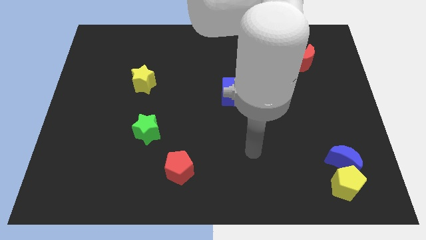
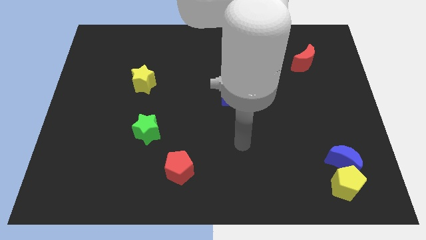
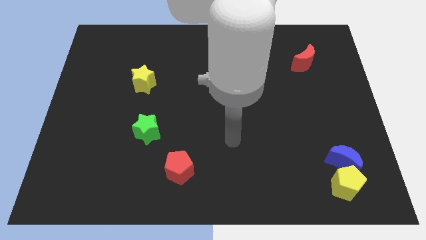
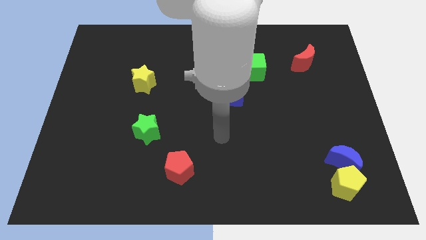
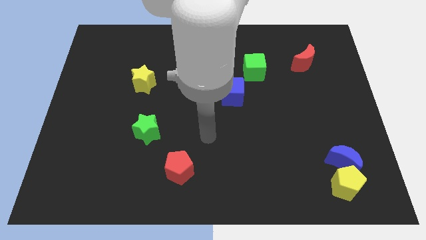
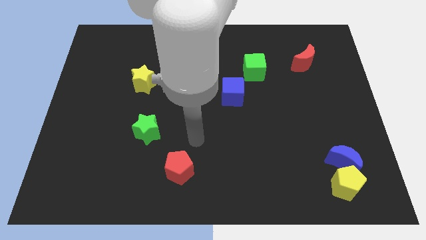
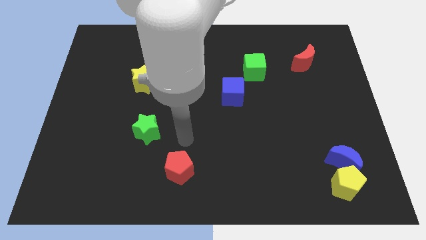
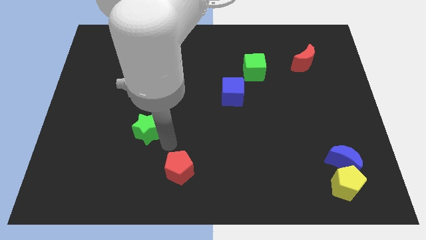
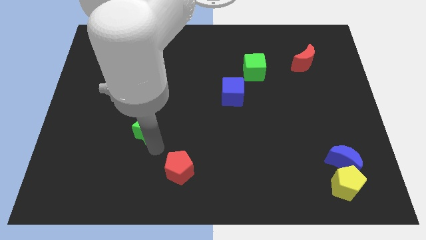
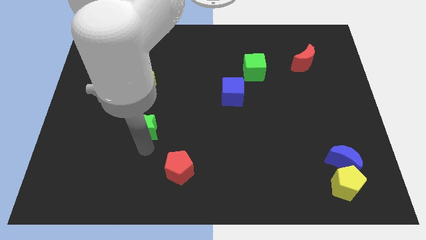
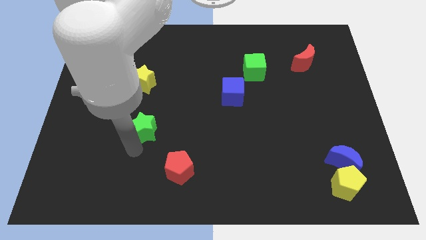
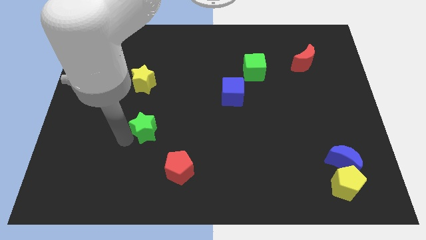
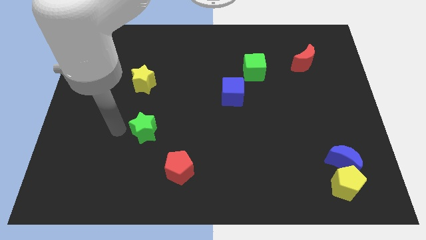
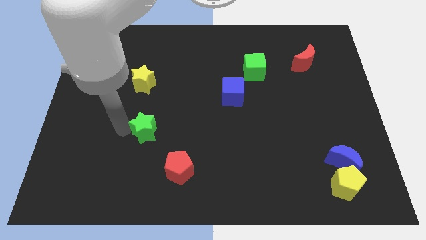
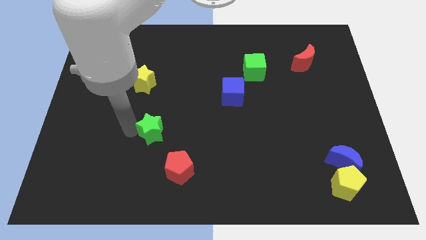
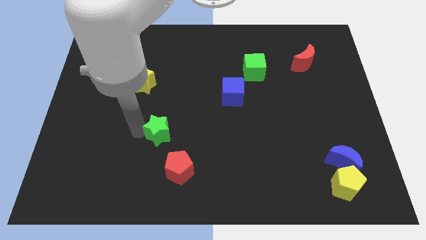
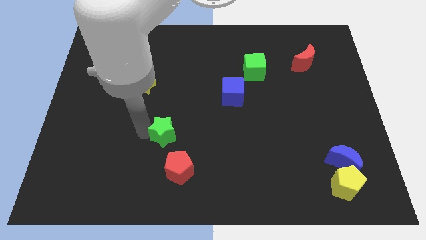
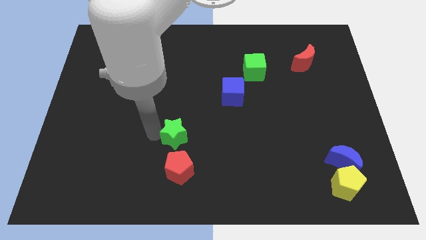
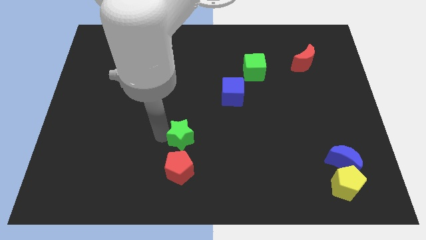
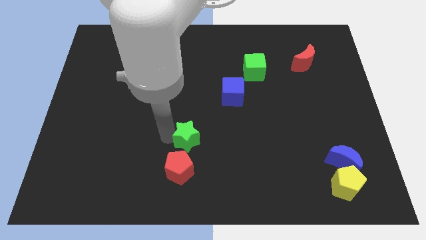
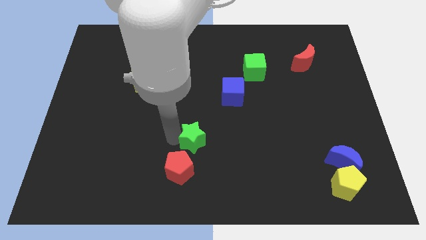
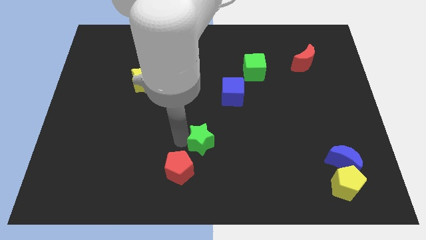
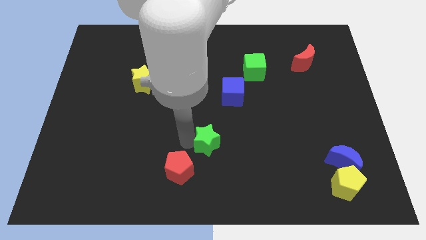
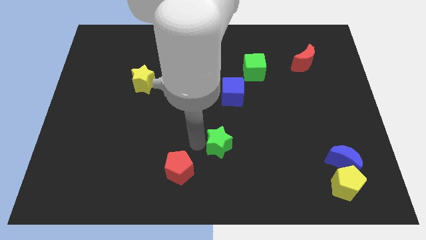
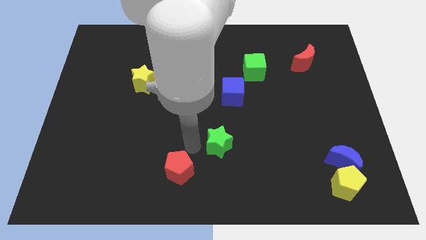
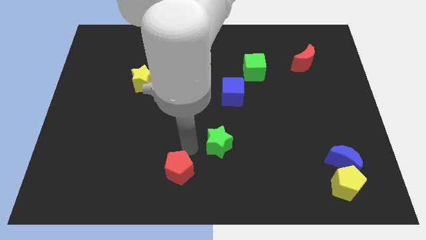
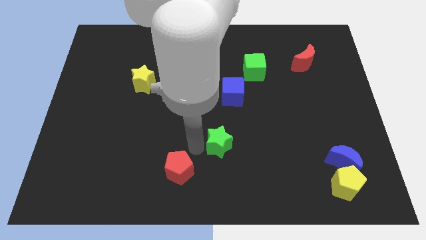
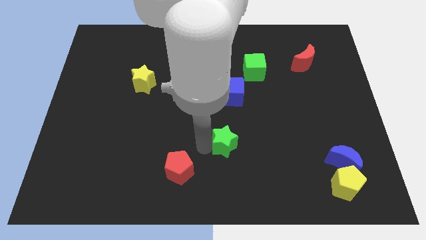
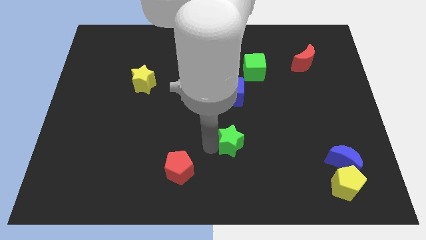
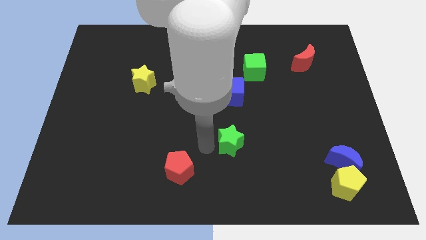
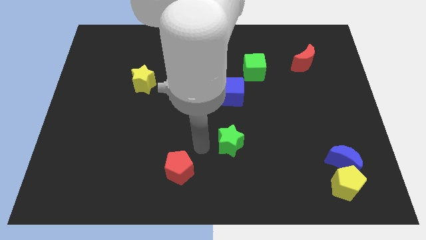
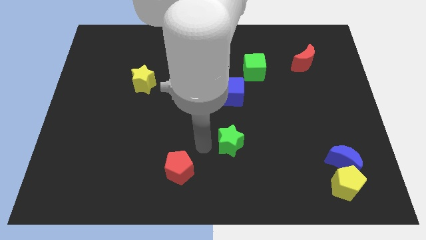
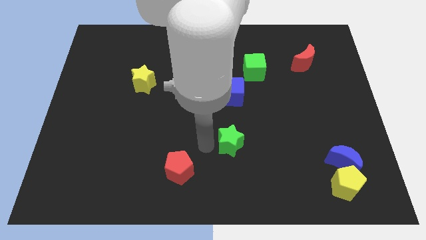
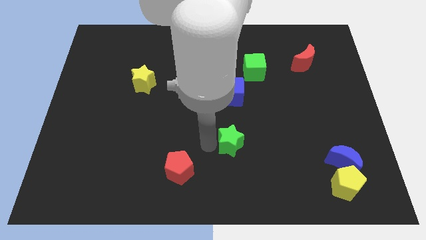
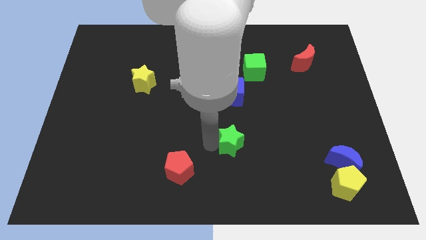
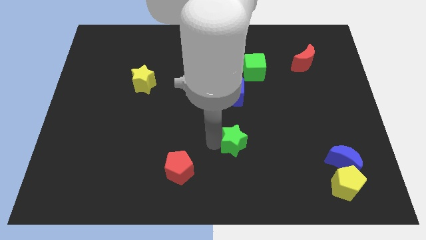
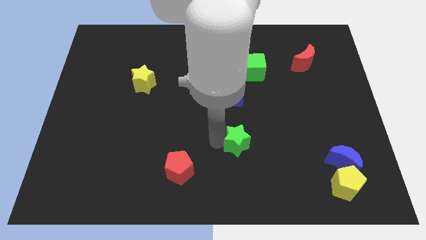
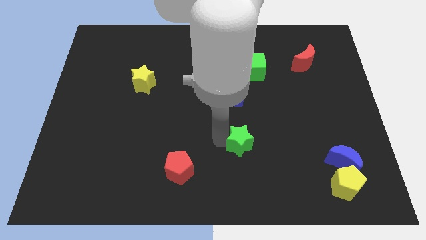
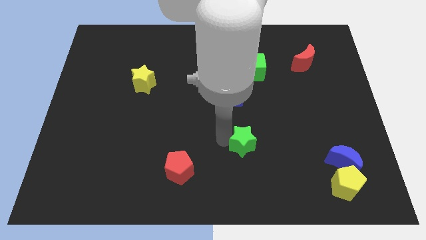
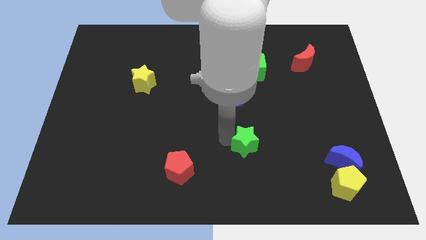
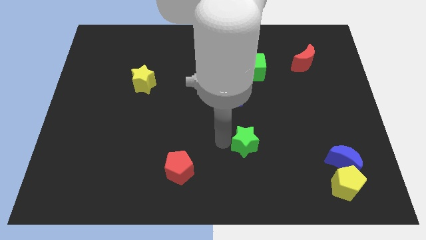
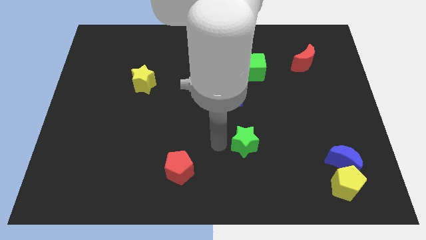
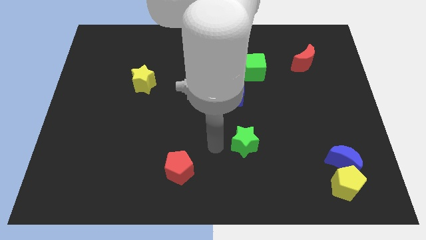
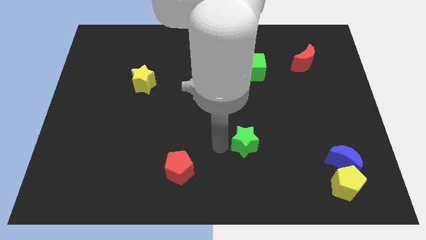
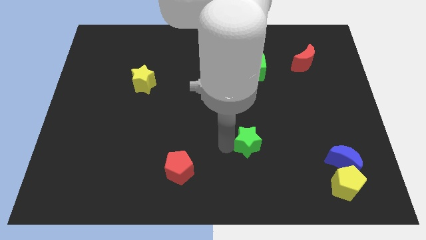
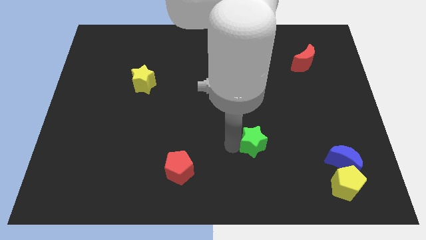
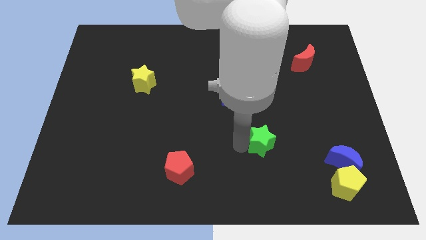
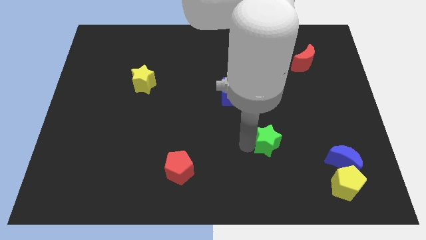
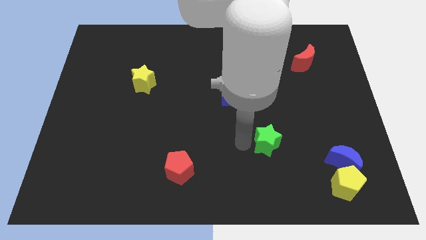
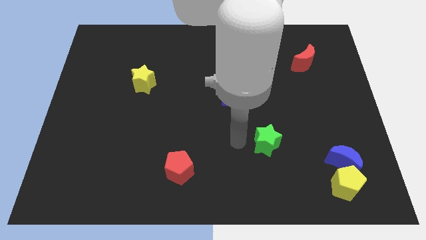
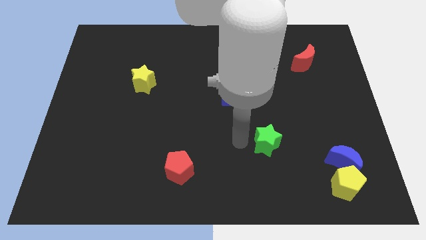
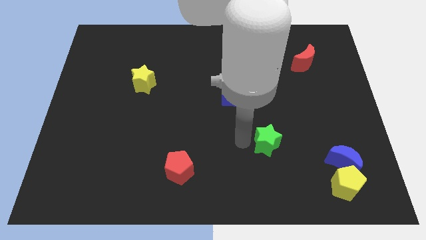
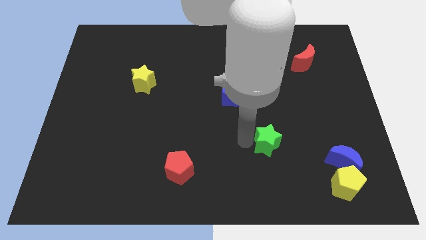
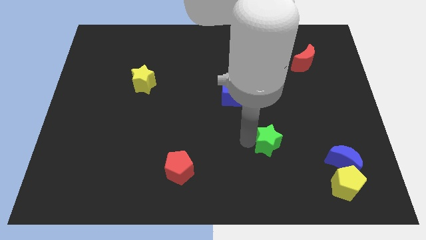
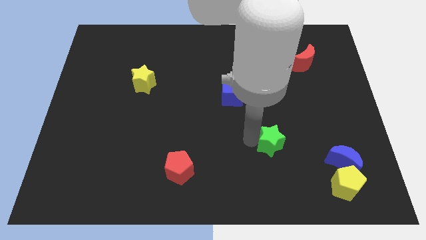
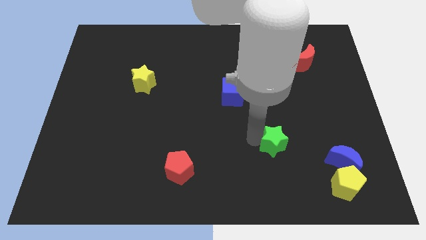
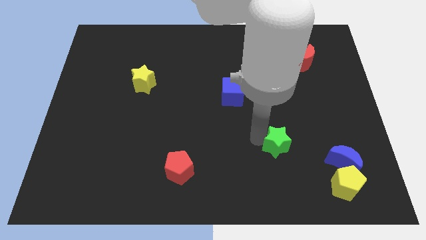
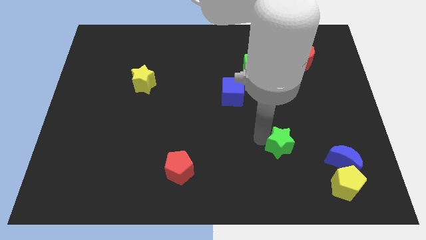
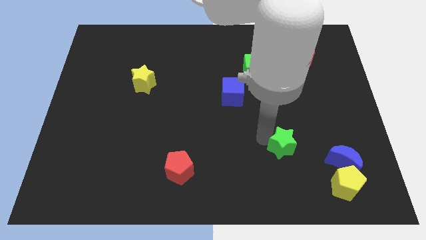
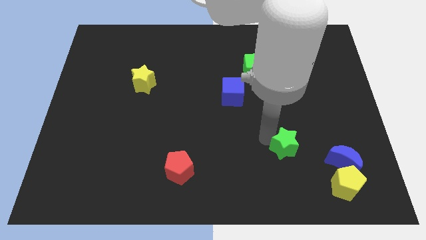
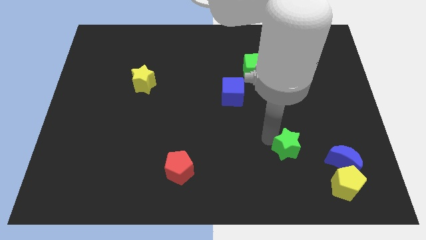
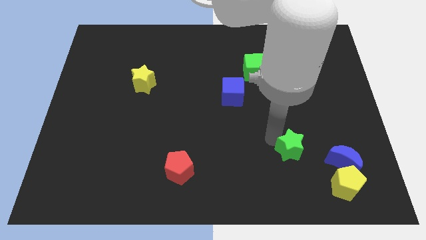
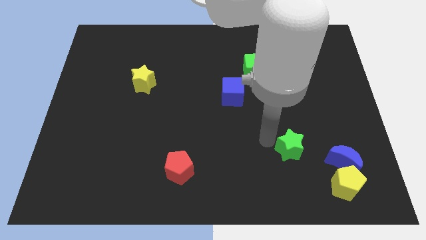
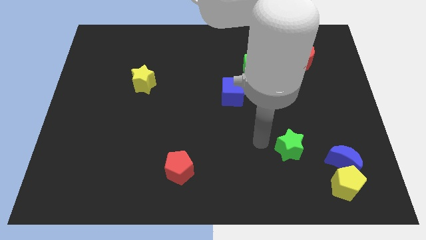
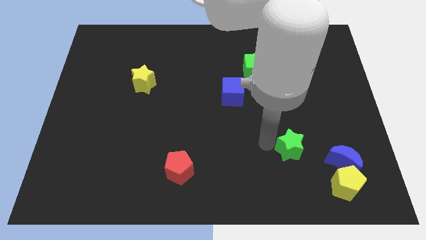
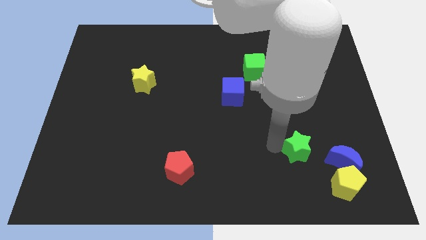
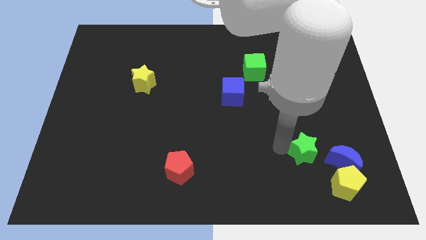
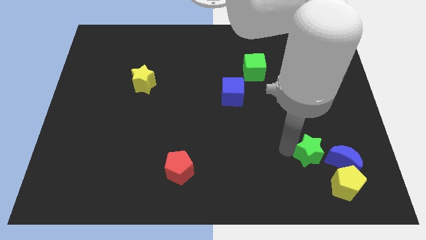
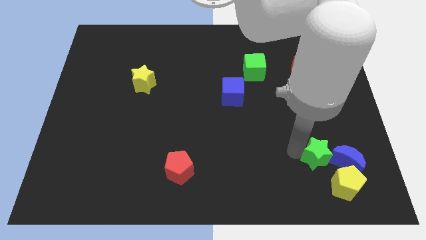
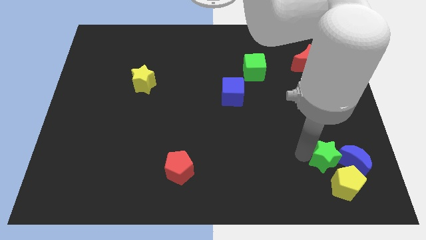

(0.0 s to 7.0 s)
slide the green star towards the blue moon

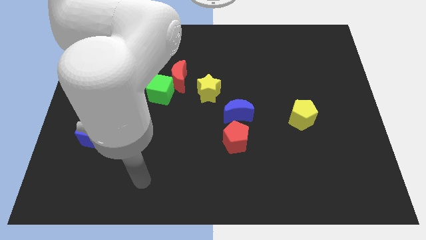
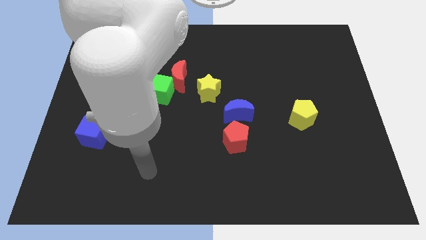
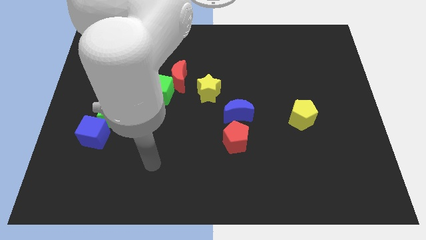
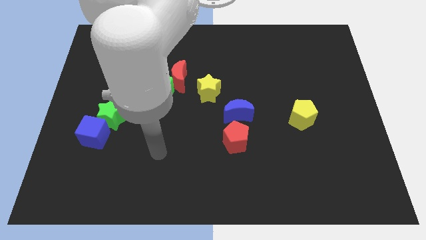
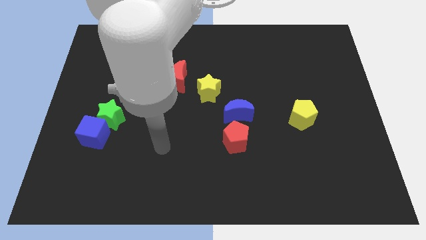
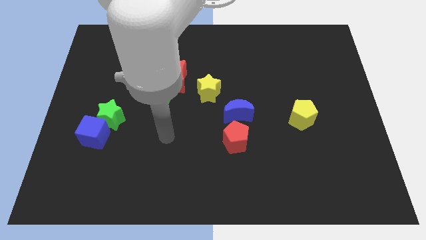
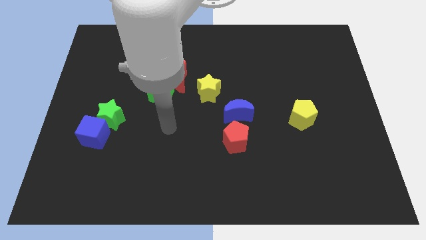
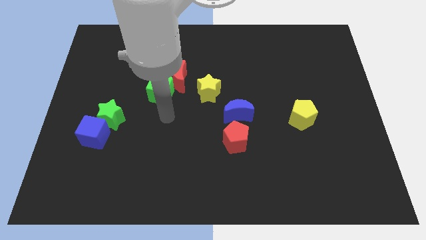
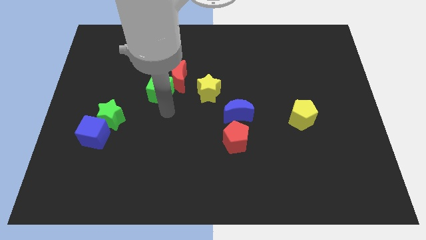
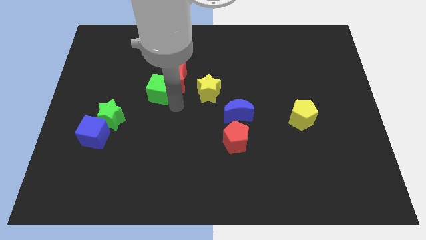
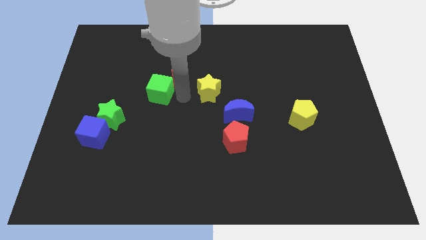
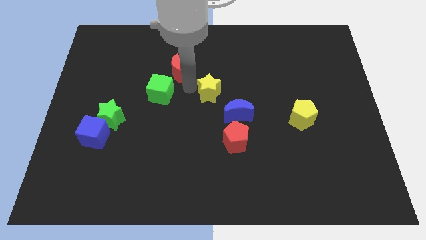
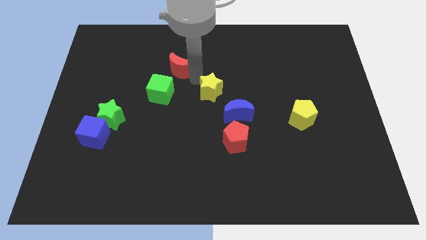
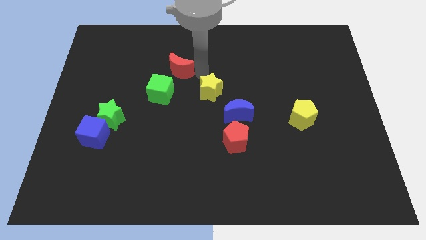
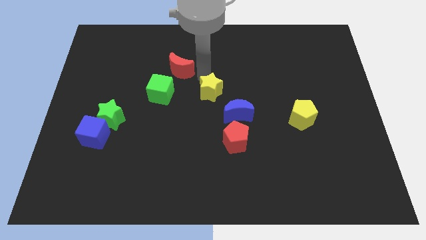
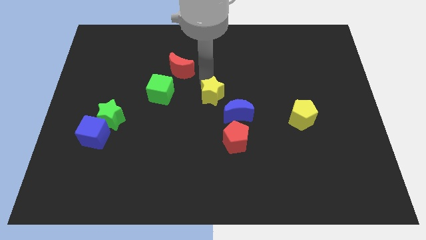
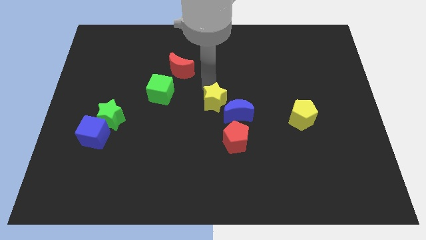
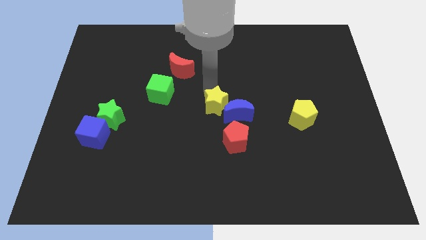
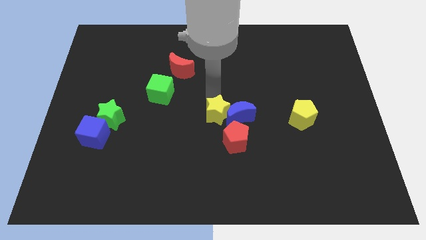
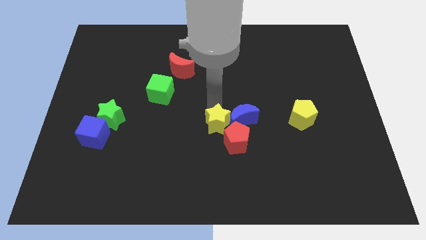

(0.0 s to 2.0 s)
push the yellow star close to the red pentagon
